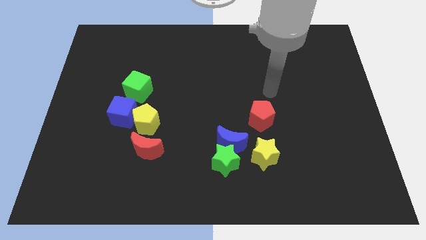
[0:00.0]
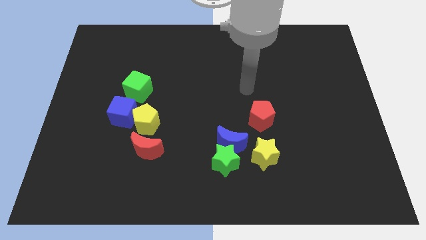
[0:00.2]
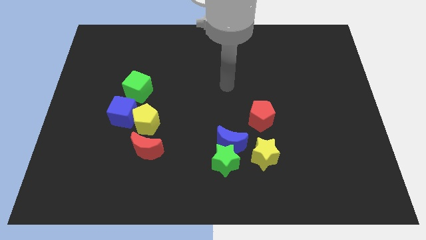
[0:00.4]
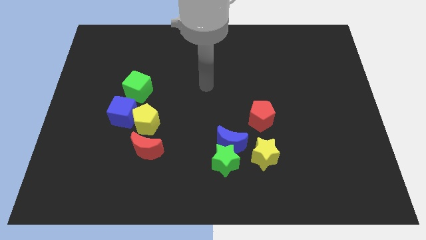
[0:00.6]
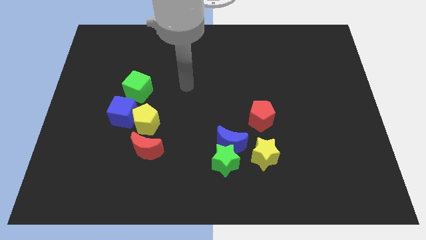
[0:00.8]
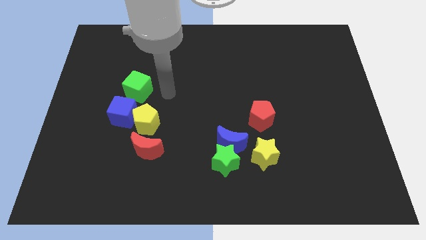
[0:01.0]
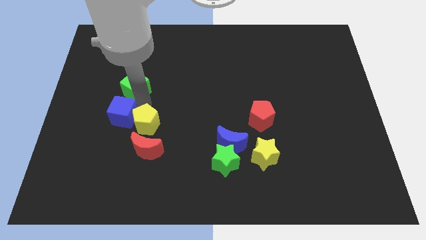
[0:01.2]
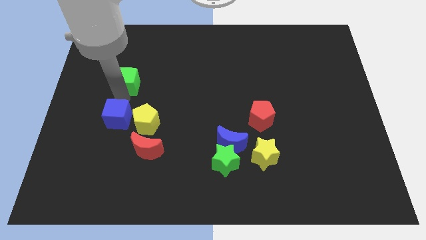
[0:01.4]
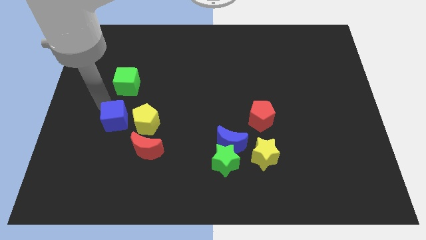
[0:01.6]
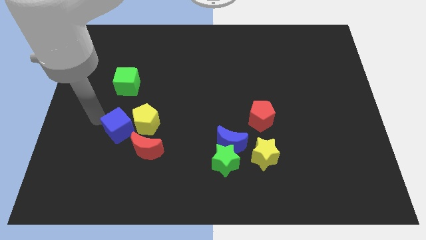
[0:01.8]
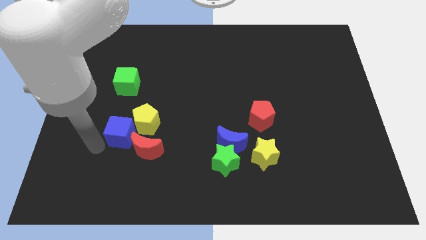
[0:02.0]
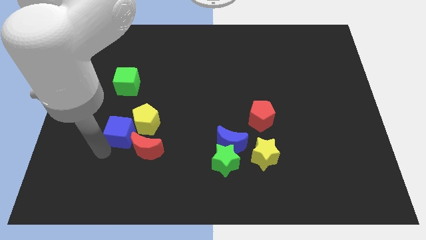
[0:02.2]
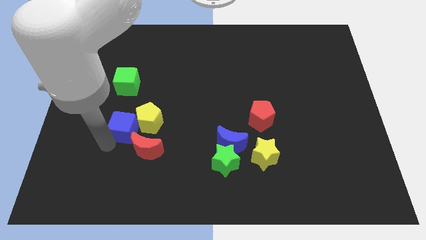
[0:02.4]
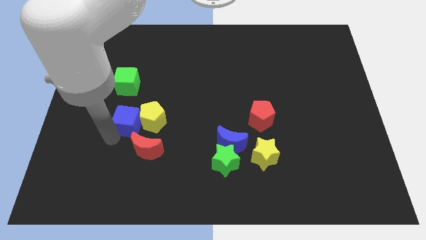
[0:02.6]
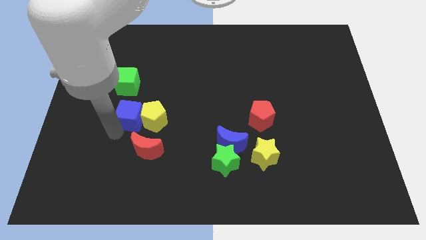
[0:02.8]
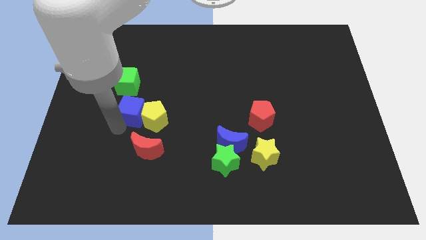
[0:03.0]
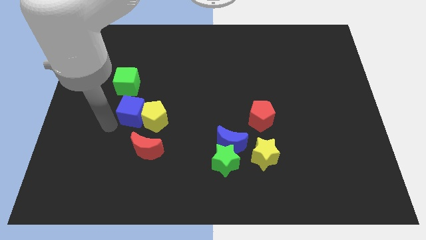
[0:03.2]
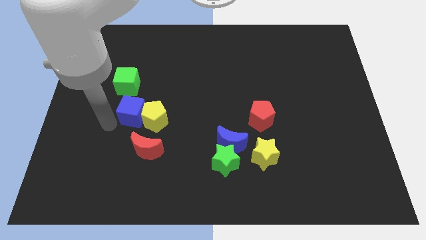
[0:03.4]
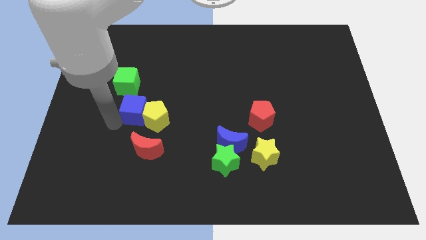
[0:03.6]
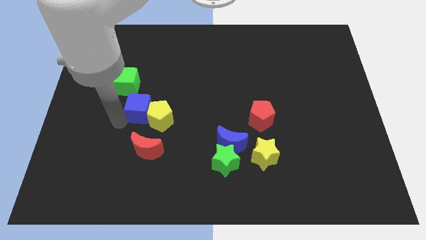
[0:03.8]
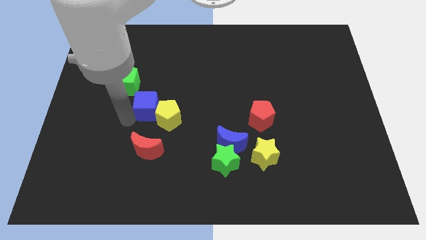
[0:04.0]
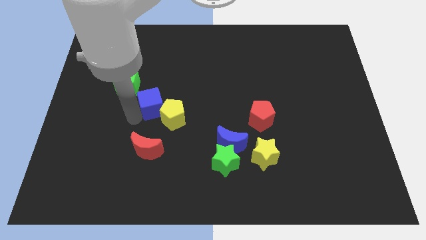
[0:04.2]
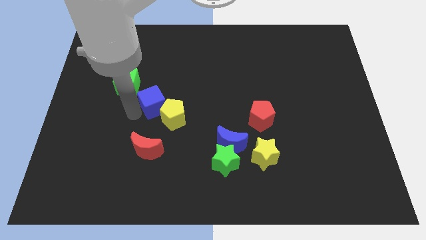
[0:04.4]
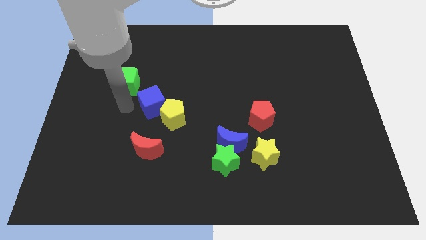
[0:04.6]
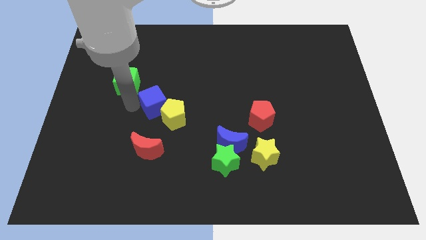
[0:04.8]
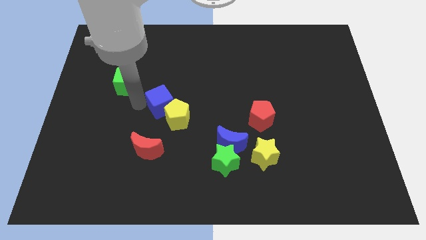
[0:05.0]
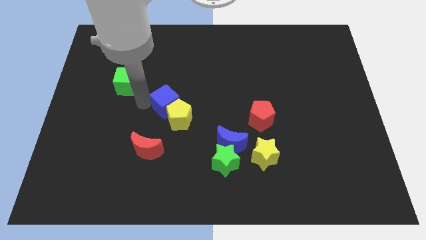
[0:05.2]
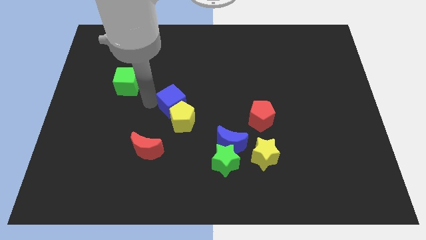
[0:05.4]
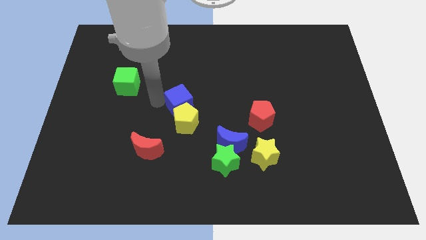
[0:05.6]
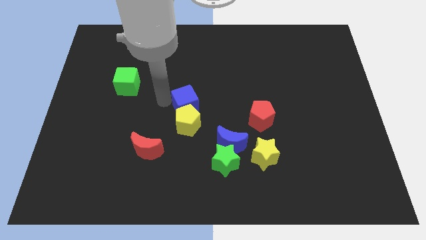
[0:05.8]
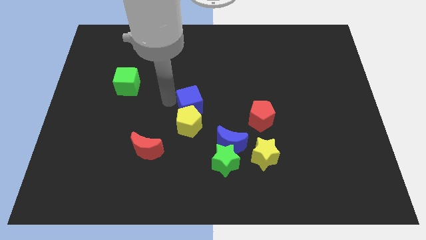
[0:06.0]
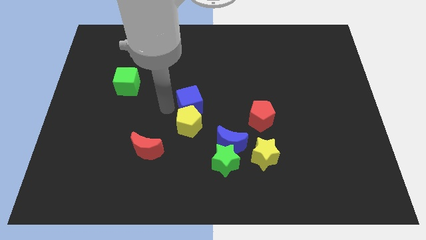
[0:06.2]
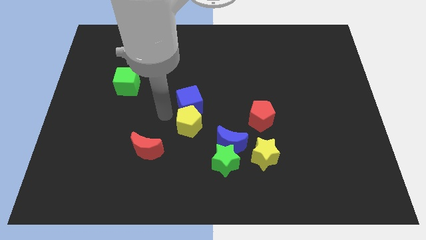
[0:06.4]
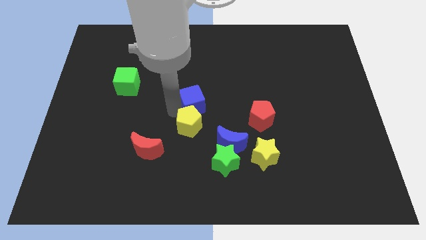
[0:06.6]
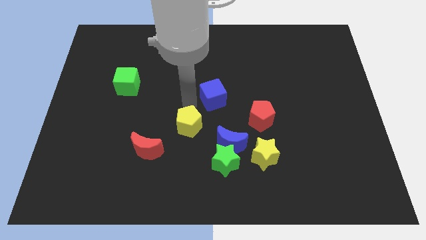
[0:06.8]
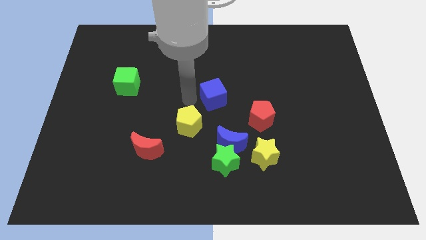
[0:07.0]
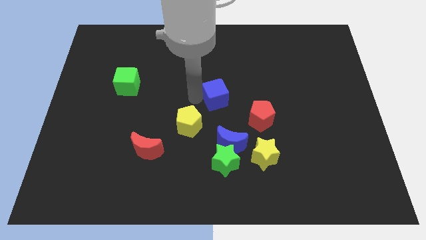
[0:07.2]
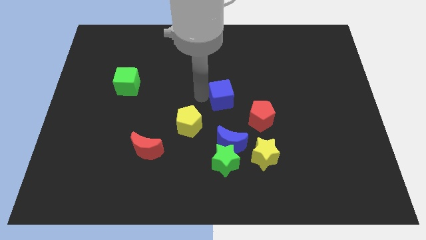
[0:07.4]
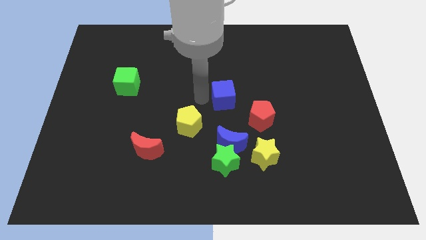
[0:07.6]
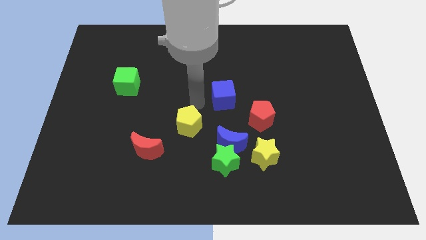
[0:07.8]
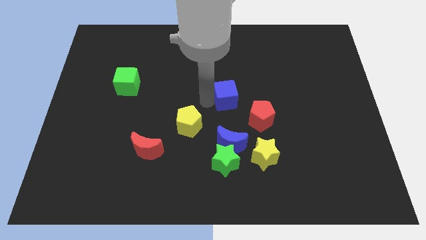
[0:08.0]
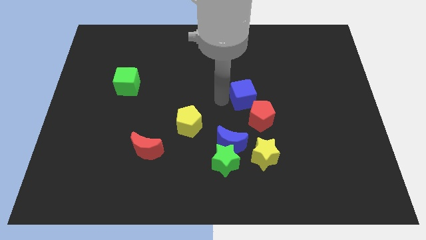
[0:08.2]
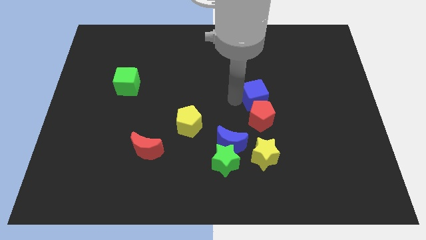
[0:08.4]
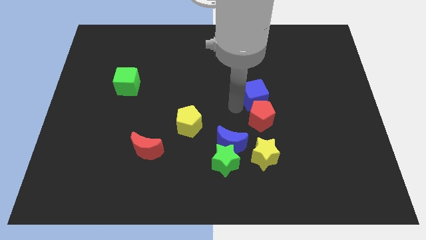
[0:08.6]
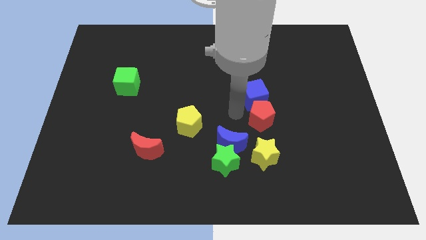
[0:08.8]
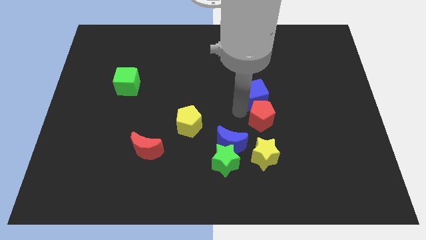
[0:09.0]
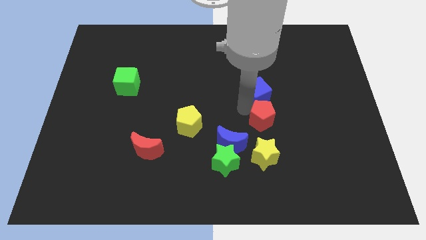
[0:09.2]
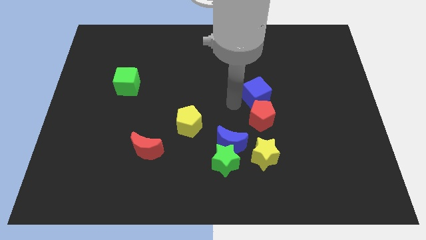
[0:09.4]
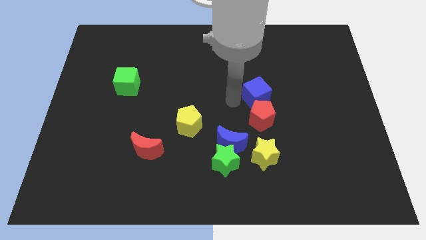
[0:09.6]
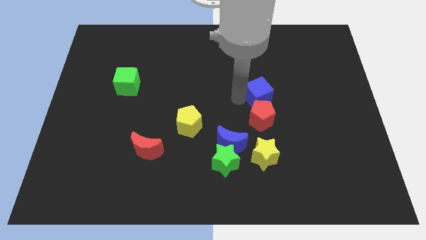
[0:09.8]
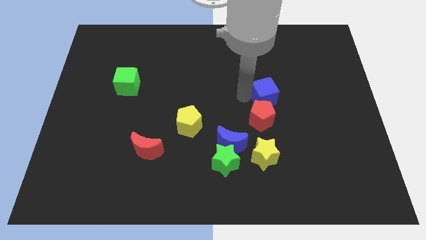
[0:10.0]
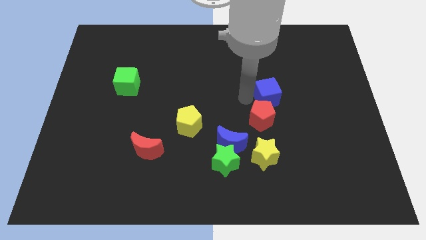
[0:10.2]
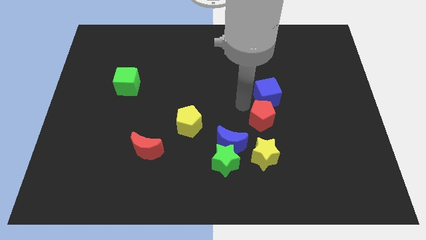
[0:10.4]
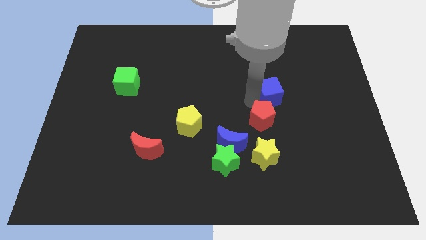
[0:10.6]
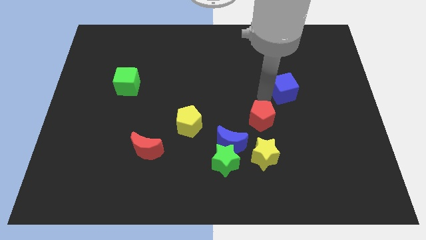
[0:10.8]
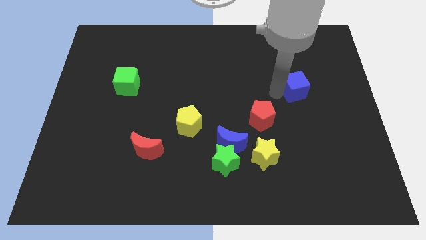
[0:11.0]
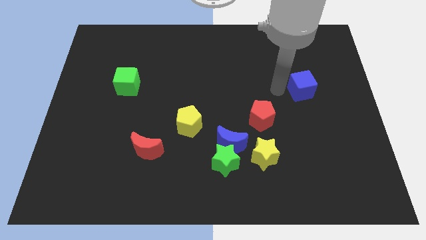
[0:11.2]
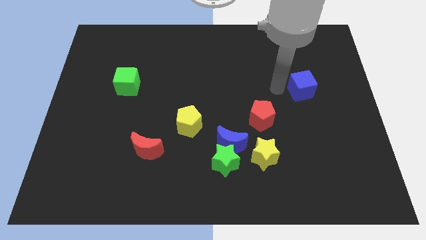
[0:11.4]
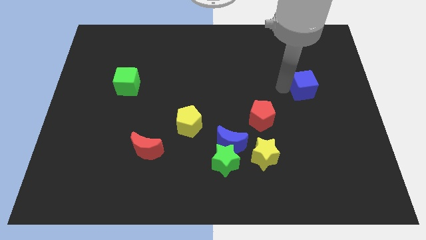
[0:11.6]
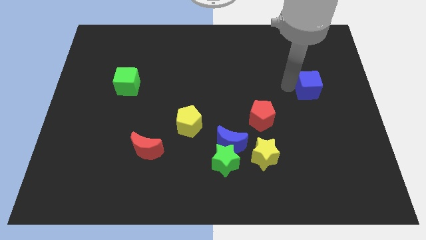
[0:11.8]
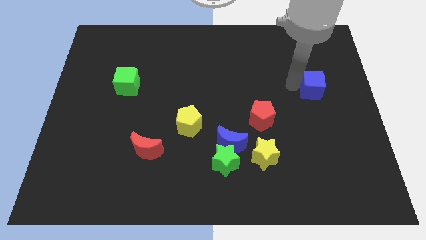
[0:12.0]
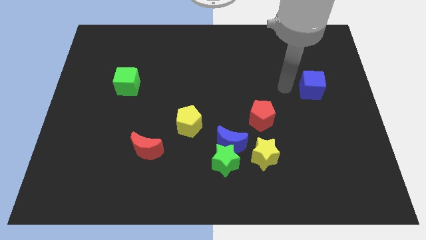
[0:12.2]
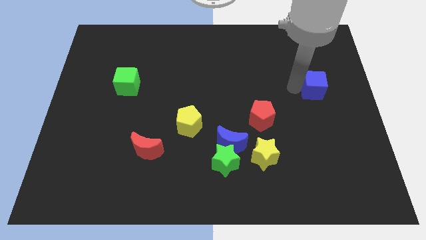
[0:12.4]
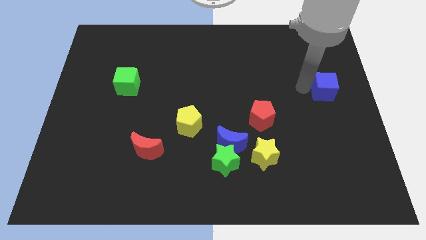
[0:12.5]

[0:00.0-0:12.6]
push the blue cube to the right side
